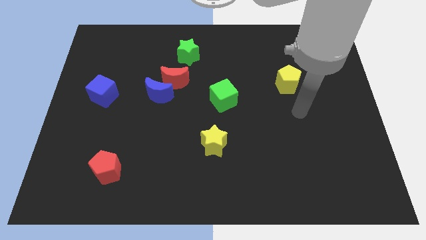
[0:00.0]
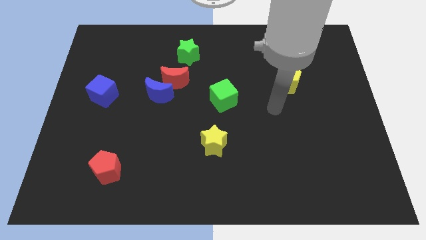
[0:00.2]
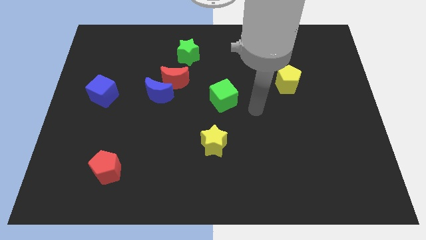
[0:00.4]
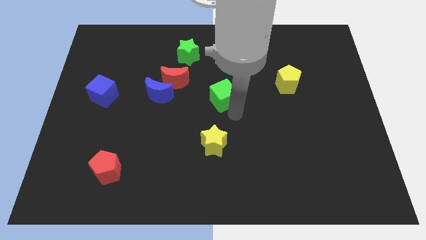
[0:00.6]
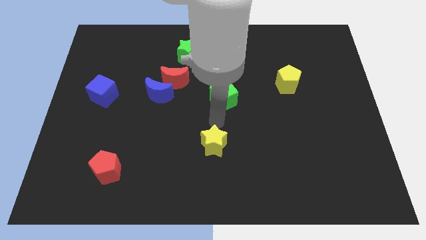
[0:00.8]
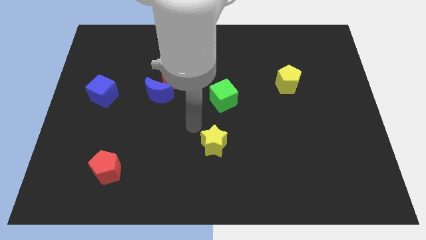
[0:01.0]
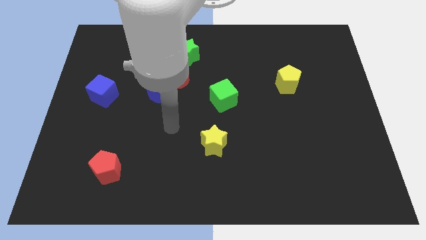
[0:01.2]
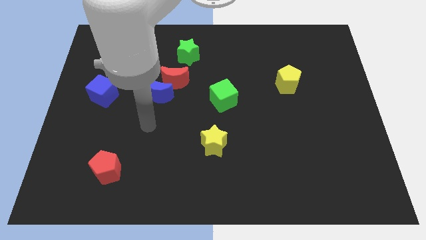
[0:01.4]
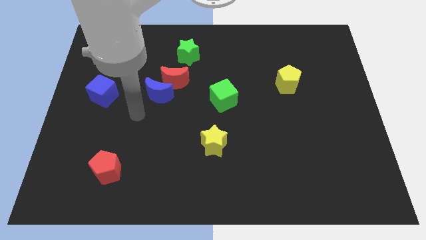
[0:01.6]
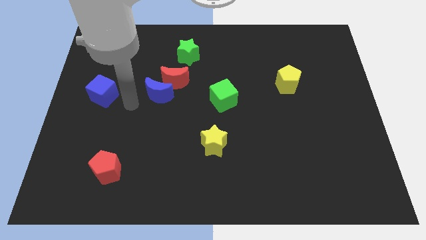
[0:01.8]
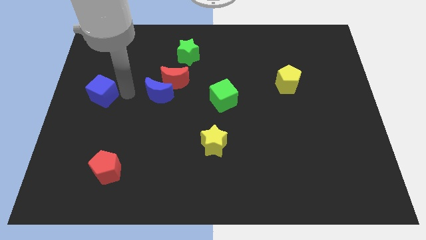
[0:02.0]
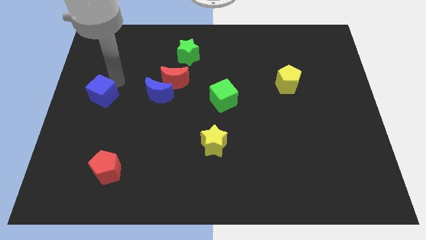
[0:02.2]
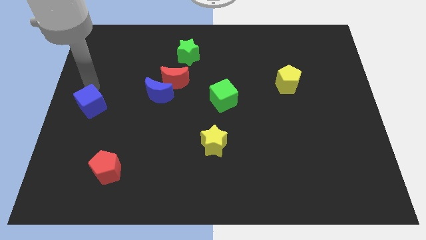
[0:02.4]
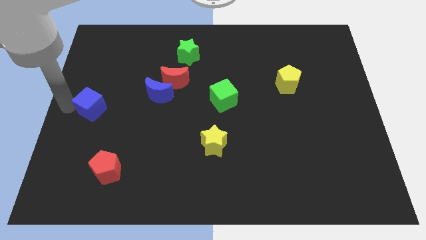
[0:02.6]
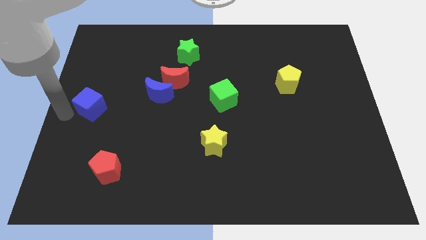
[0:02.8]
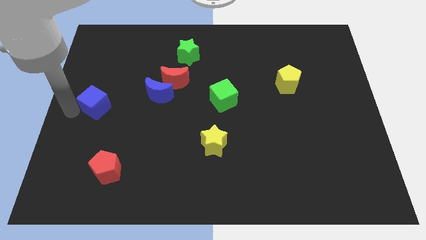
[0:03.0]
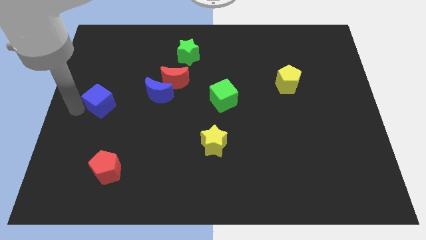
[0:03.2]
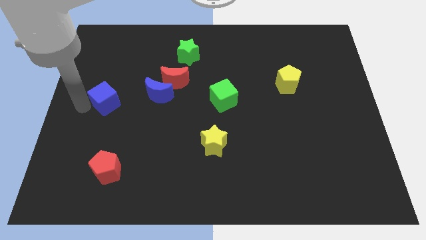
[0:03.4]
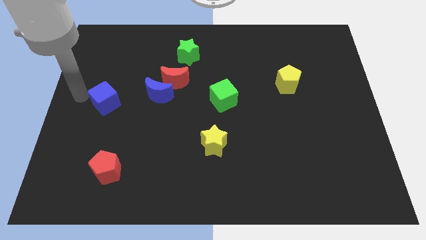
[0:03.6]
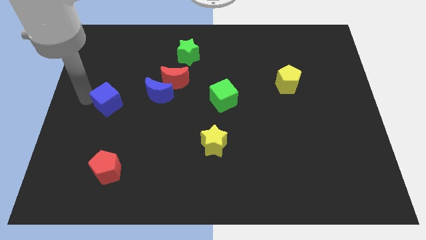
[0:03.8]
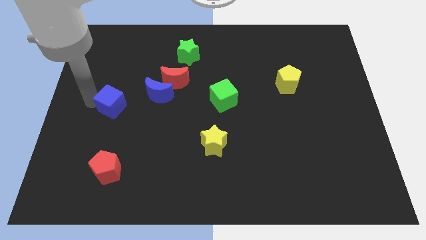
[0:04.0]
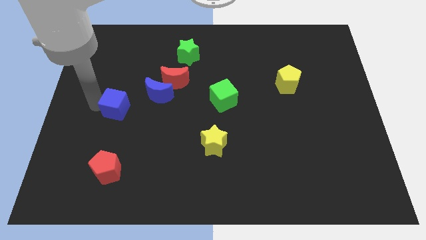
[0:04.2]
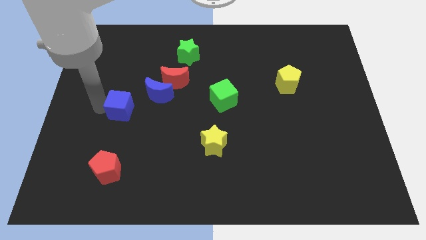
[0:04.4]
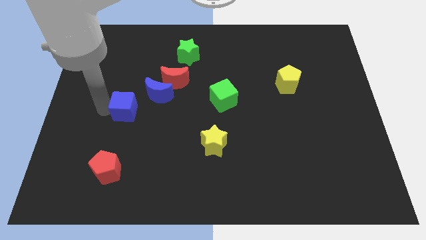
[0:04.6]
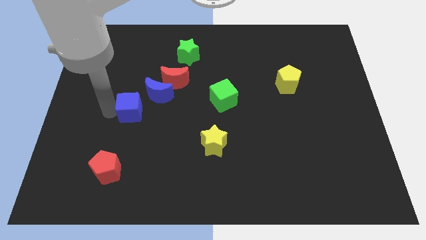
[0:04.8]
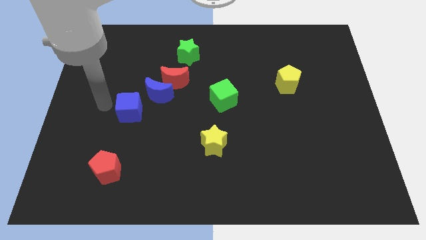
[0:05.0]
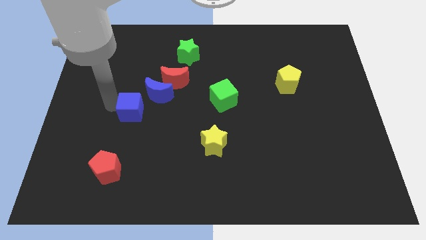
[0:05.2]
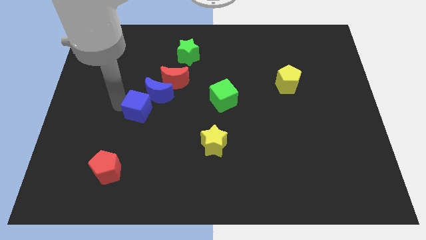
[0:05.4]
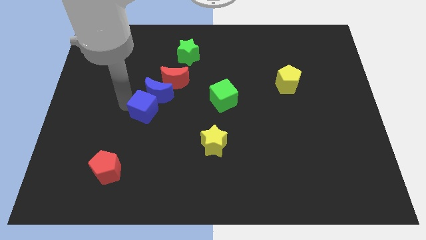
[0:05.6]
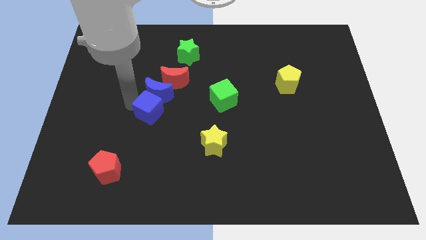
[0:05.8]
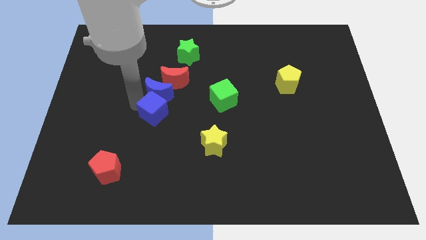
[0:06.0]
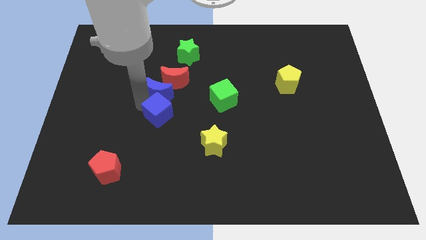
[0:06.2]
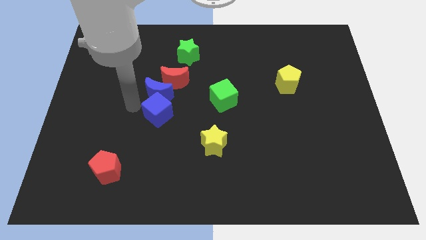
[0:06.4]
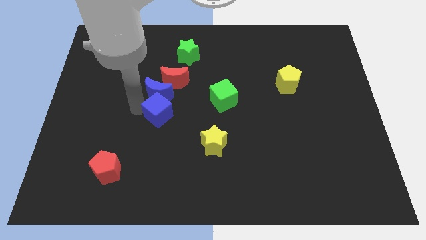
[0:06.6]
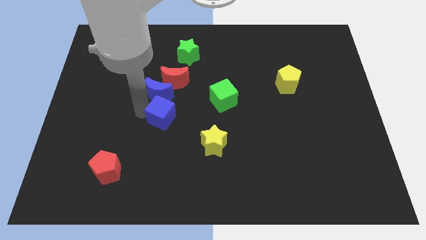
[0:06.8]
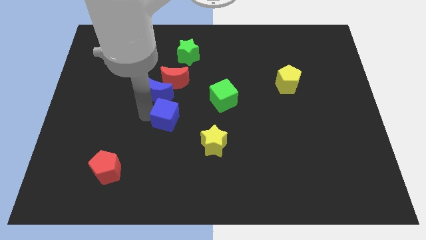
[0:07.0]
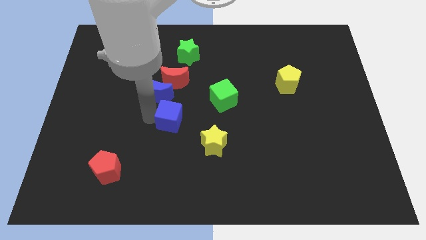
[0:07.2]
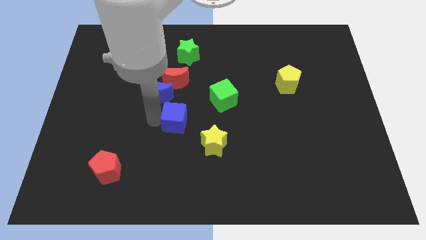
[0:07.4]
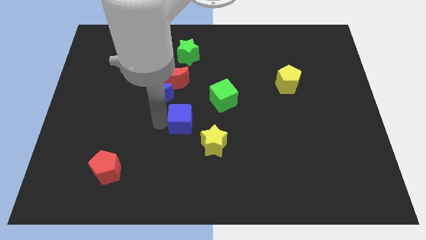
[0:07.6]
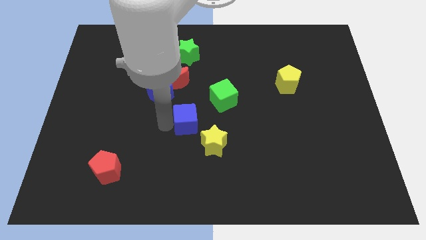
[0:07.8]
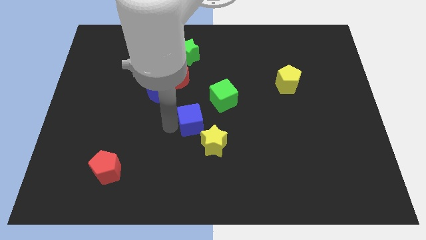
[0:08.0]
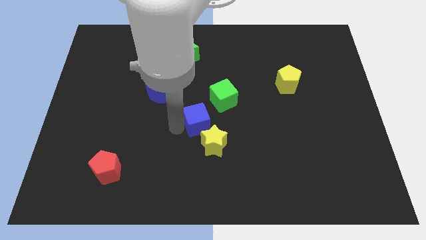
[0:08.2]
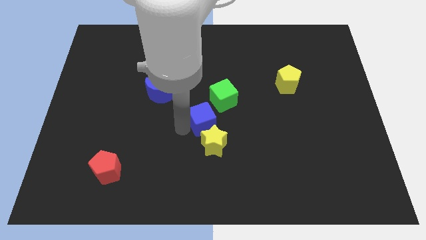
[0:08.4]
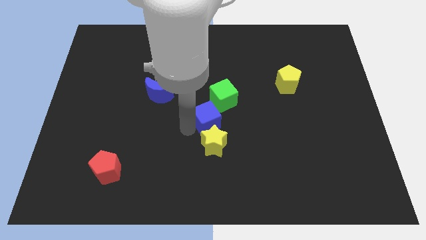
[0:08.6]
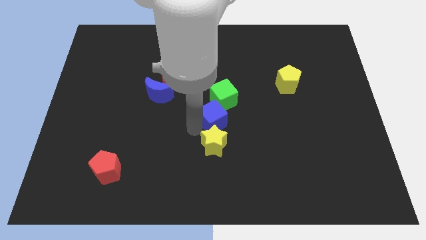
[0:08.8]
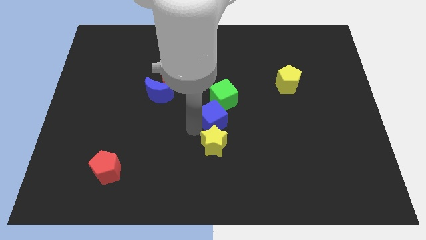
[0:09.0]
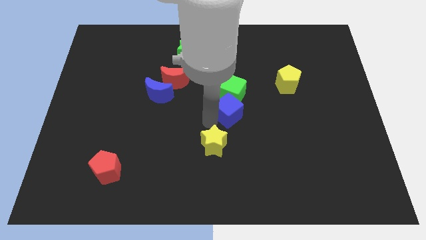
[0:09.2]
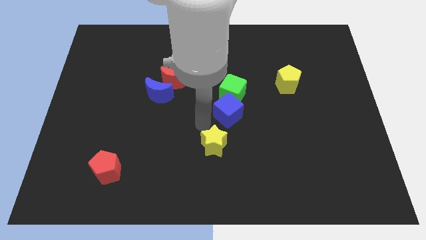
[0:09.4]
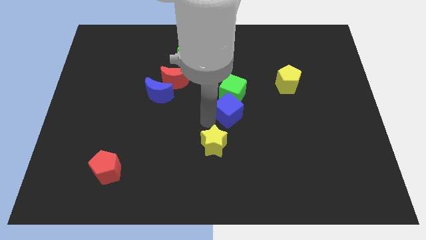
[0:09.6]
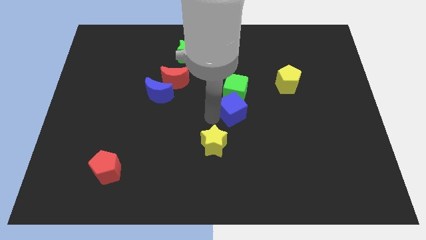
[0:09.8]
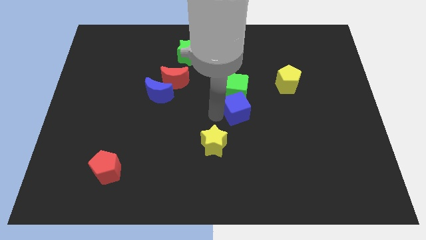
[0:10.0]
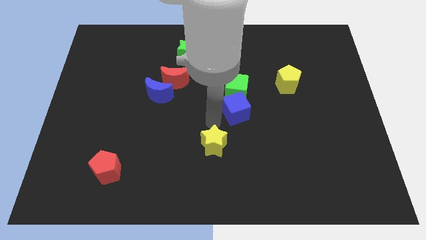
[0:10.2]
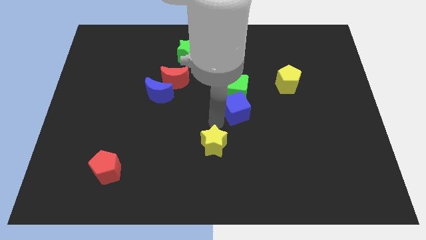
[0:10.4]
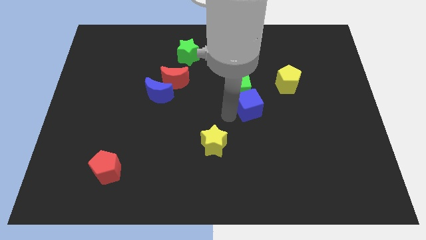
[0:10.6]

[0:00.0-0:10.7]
push the blue cube to the bottom left side of the yellow pentagon

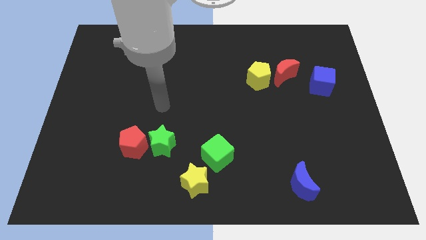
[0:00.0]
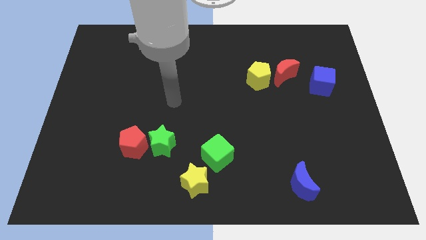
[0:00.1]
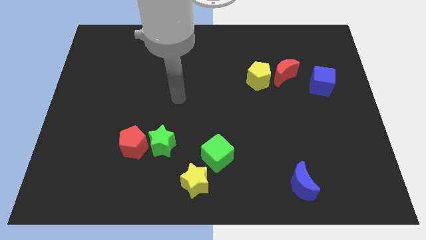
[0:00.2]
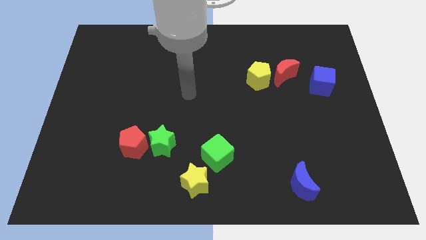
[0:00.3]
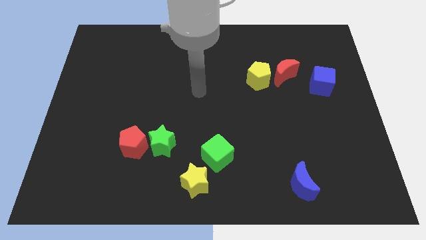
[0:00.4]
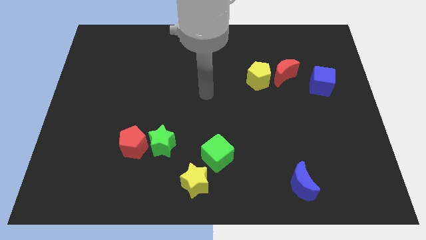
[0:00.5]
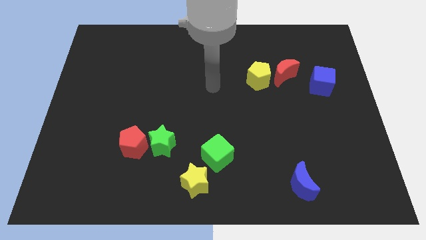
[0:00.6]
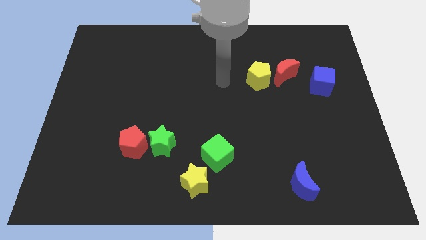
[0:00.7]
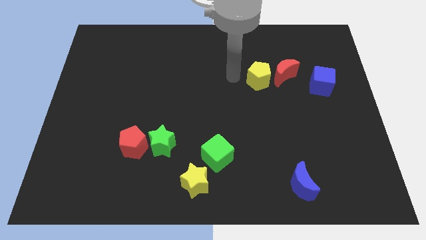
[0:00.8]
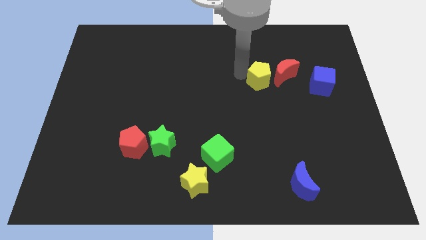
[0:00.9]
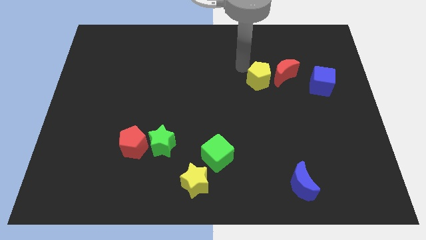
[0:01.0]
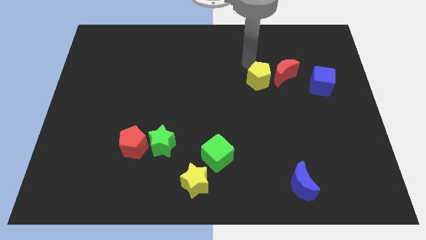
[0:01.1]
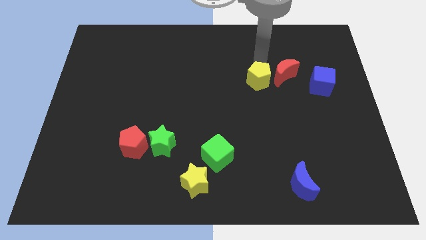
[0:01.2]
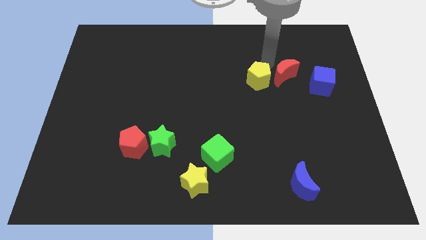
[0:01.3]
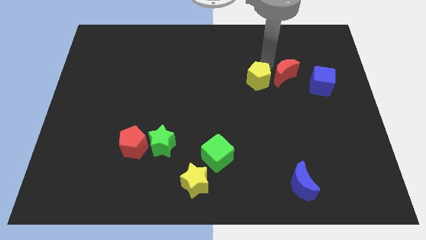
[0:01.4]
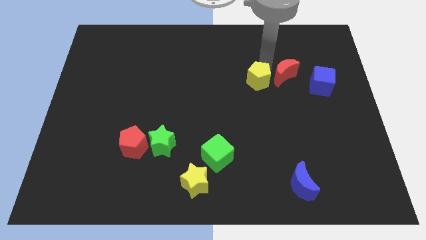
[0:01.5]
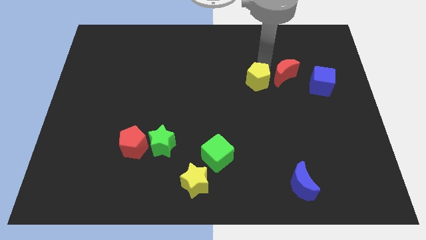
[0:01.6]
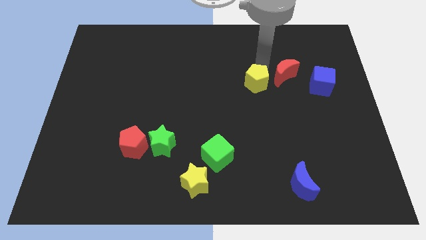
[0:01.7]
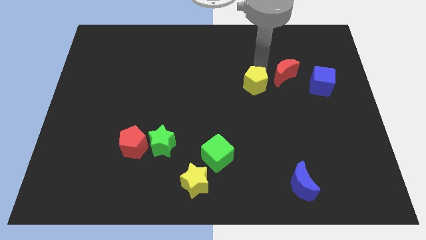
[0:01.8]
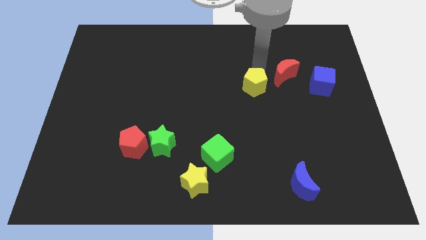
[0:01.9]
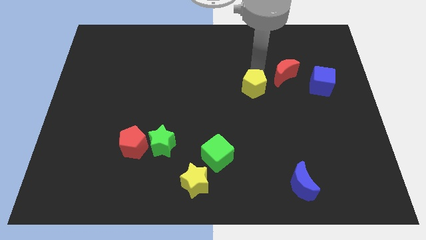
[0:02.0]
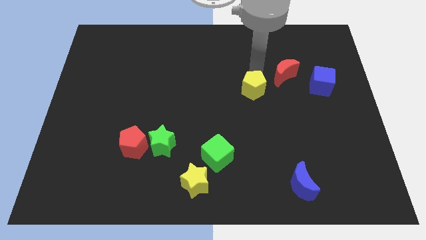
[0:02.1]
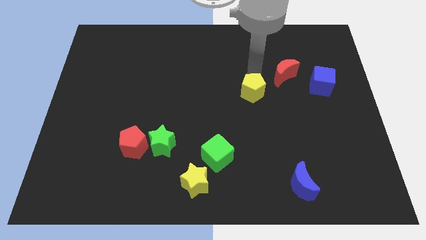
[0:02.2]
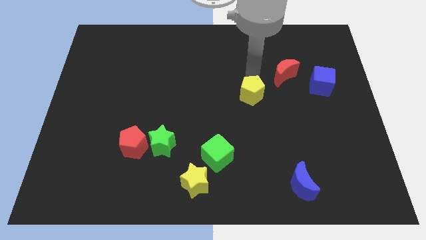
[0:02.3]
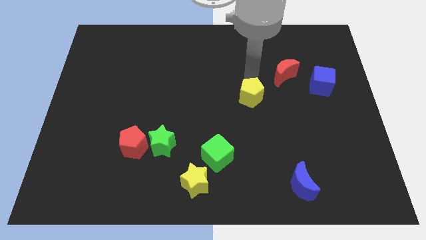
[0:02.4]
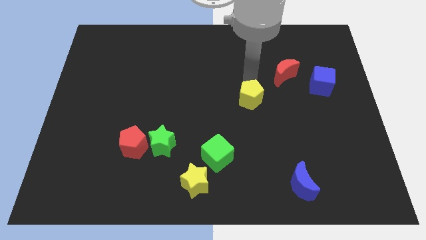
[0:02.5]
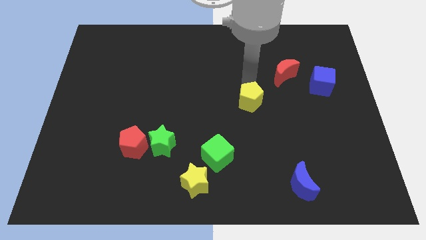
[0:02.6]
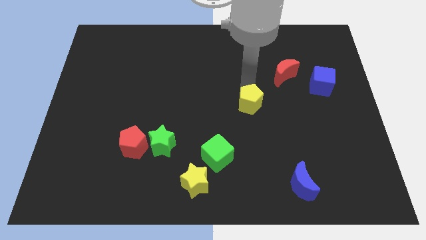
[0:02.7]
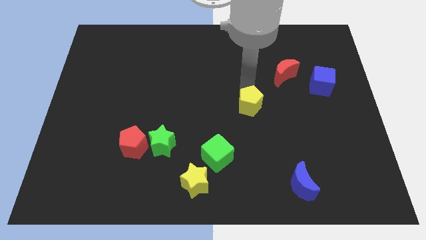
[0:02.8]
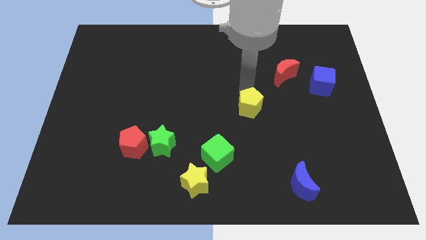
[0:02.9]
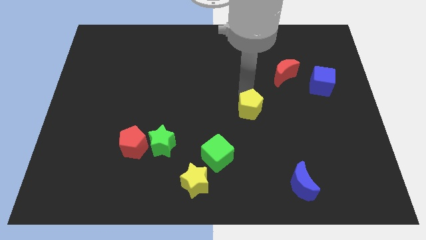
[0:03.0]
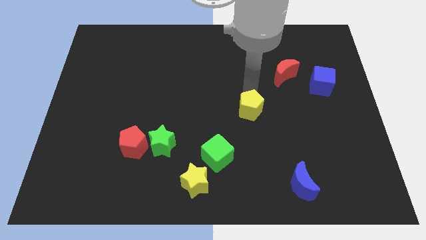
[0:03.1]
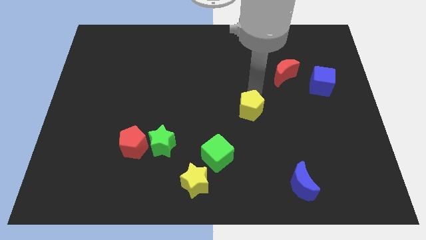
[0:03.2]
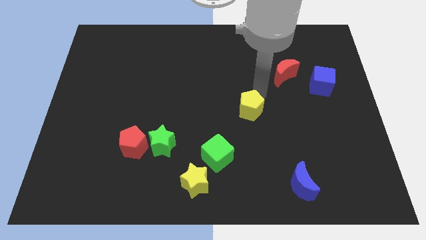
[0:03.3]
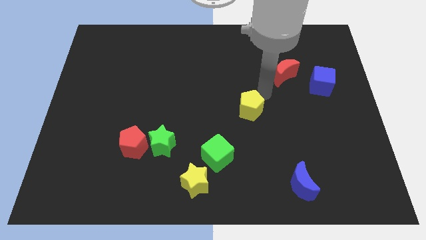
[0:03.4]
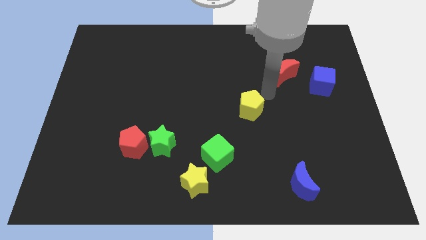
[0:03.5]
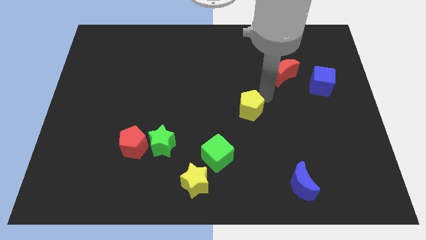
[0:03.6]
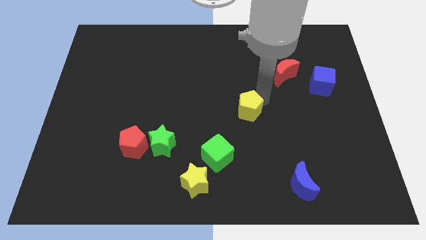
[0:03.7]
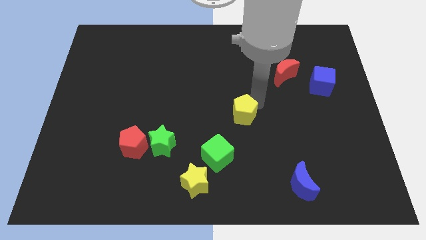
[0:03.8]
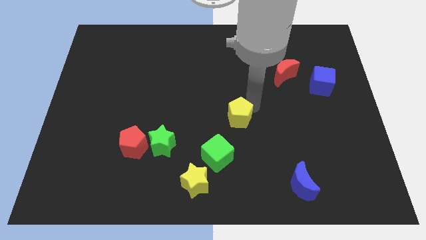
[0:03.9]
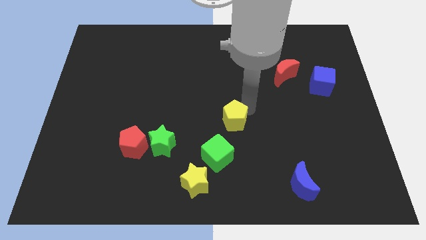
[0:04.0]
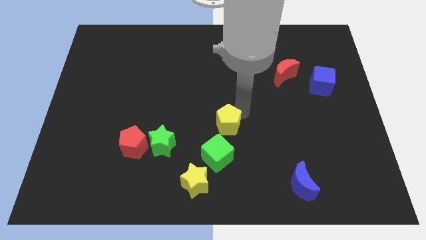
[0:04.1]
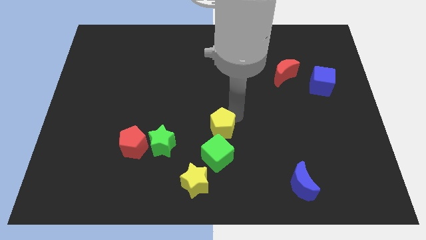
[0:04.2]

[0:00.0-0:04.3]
push the yellow pentagon right of the green star
